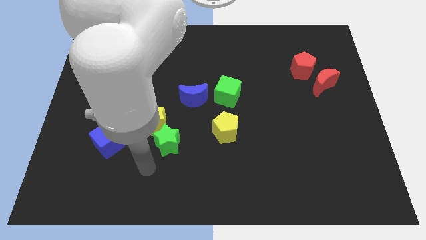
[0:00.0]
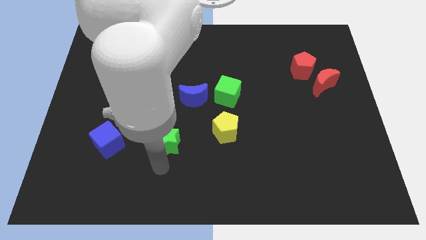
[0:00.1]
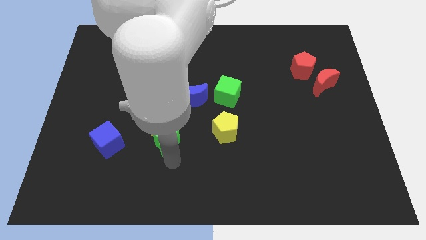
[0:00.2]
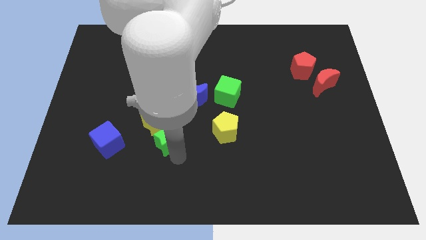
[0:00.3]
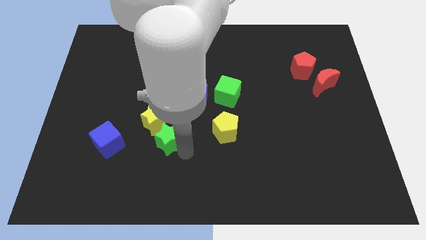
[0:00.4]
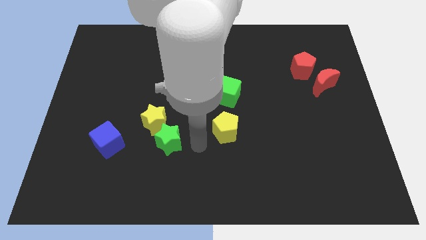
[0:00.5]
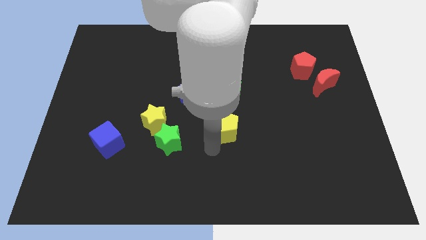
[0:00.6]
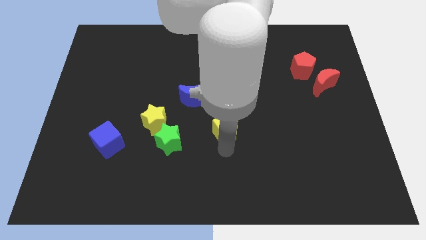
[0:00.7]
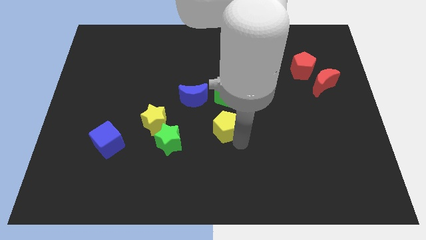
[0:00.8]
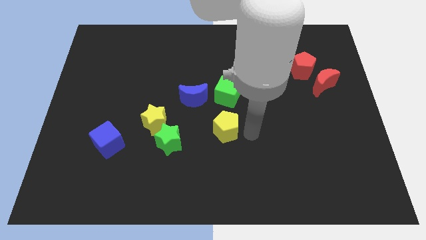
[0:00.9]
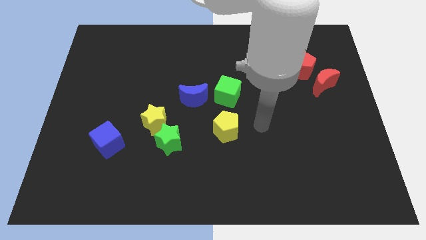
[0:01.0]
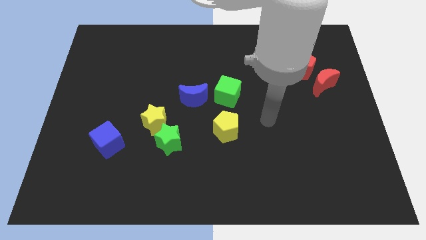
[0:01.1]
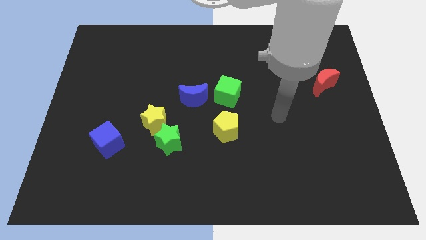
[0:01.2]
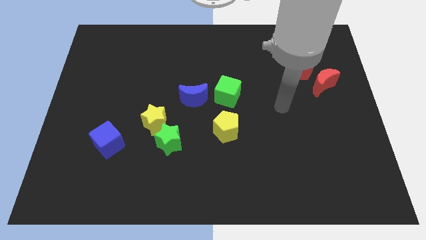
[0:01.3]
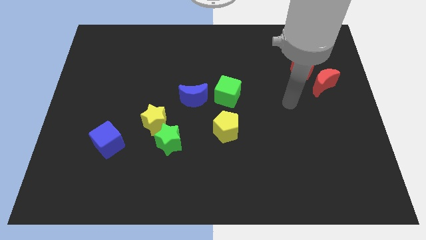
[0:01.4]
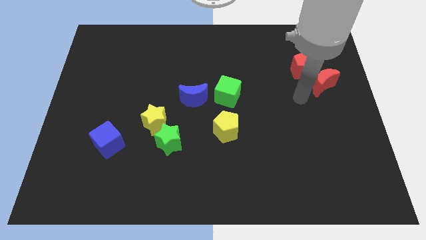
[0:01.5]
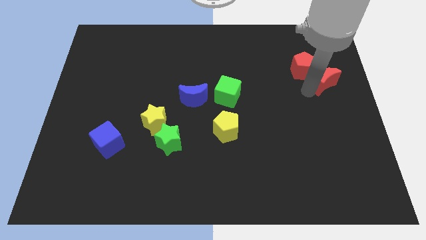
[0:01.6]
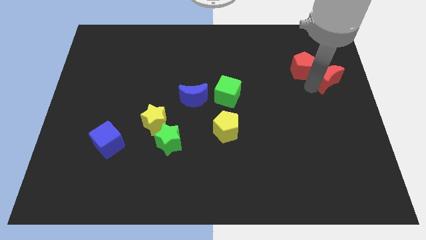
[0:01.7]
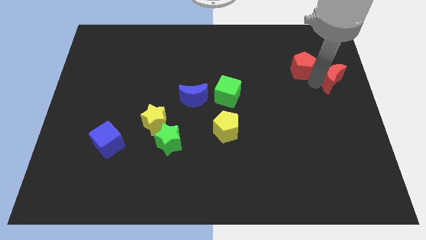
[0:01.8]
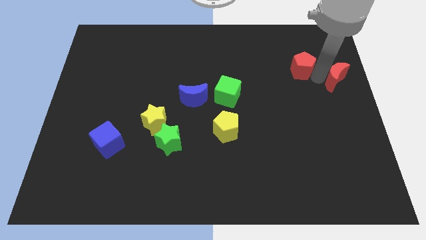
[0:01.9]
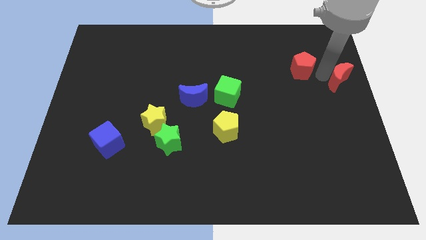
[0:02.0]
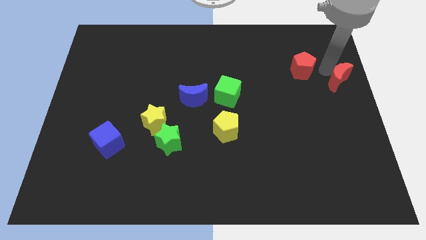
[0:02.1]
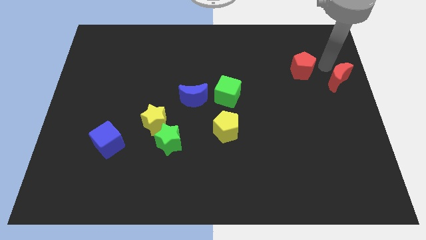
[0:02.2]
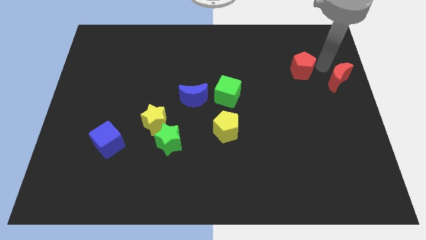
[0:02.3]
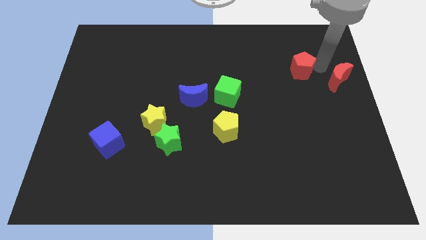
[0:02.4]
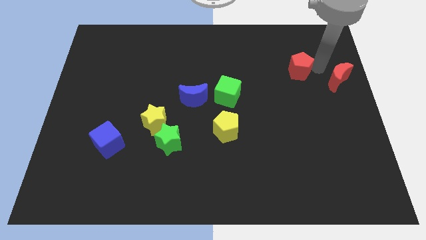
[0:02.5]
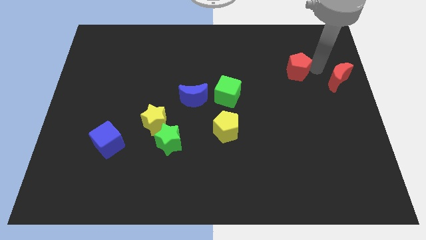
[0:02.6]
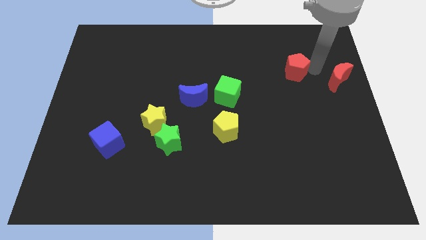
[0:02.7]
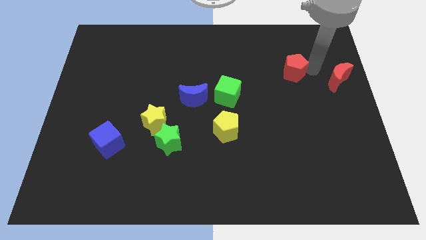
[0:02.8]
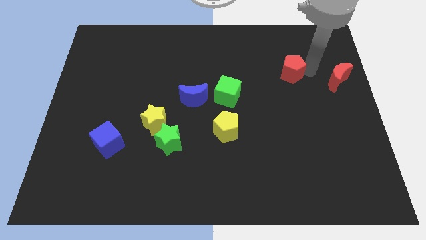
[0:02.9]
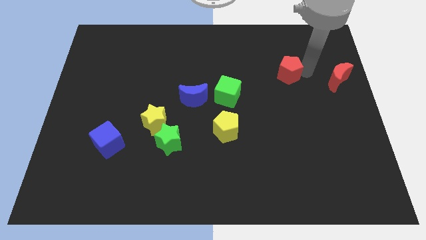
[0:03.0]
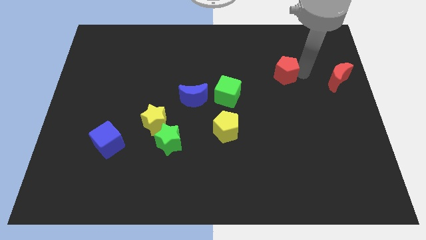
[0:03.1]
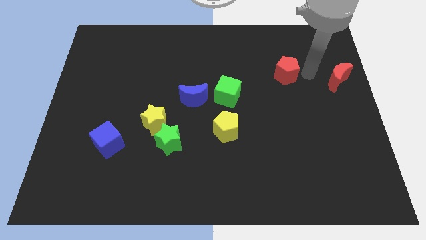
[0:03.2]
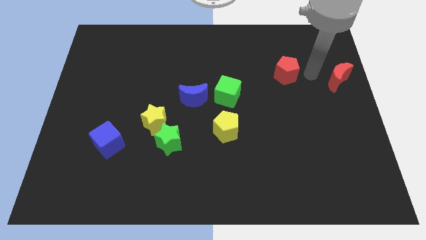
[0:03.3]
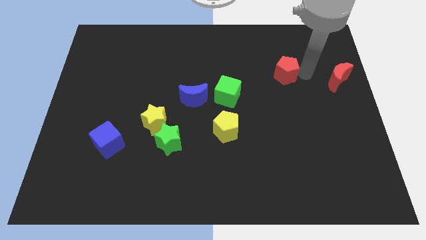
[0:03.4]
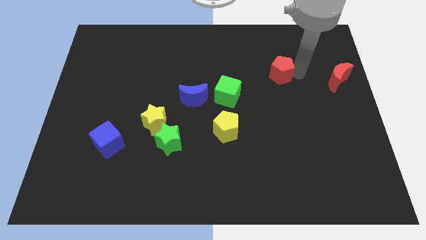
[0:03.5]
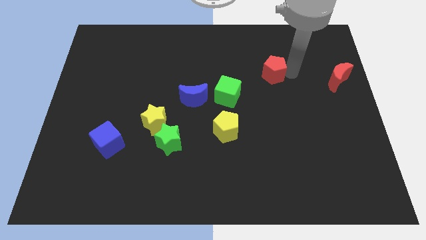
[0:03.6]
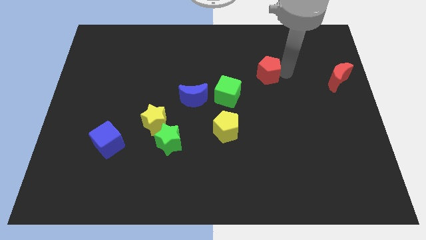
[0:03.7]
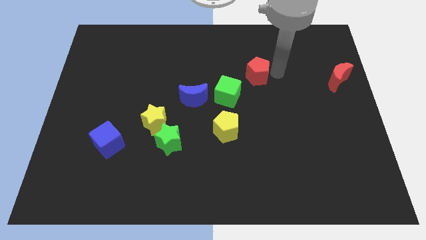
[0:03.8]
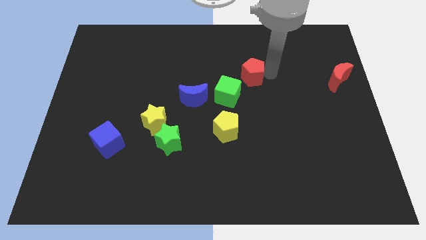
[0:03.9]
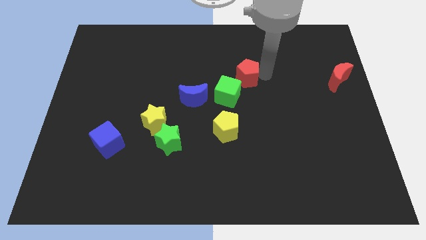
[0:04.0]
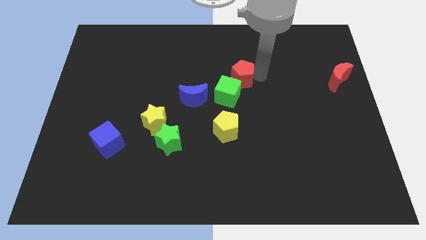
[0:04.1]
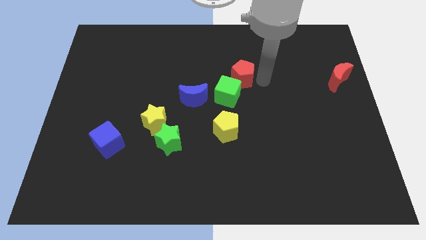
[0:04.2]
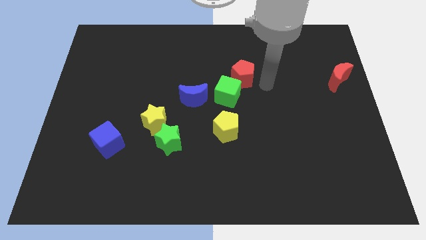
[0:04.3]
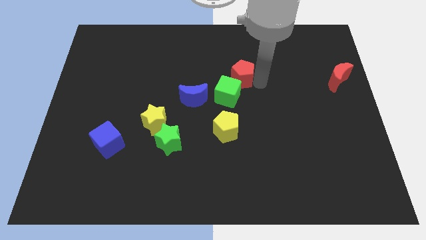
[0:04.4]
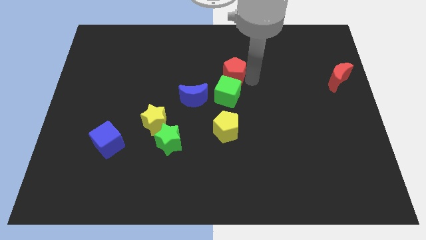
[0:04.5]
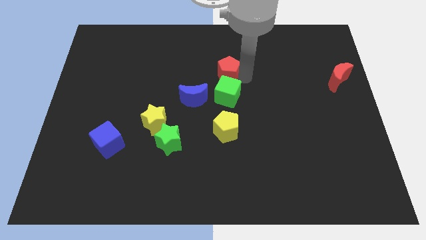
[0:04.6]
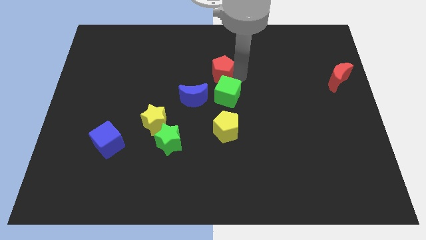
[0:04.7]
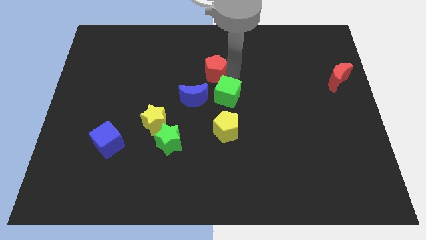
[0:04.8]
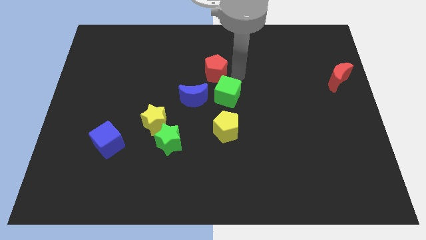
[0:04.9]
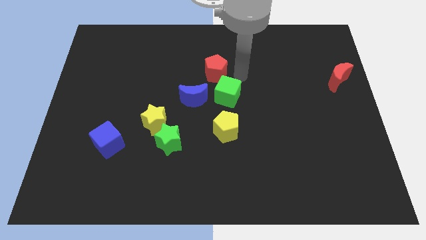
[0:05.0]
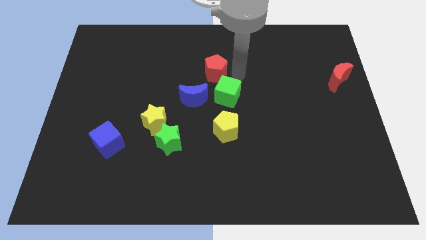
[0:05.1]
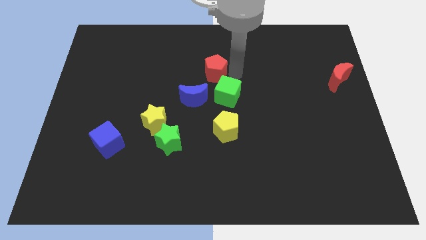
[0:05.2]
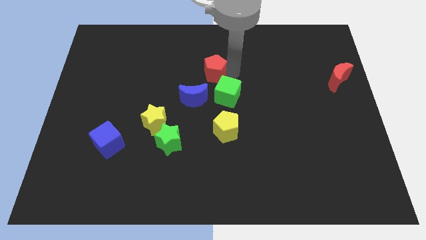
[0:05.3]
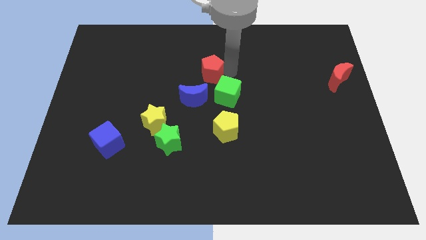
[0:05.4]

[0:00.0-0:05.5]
move the red pentagon to the top of the blue moon

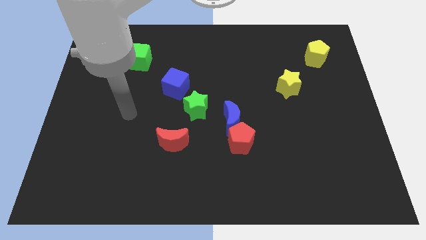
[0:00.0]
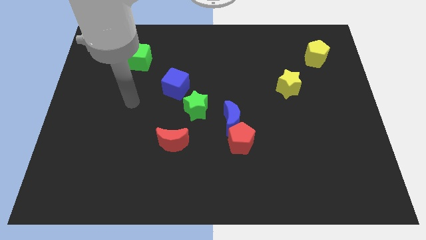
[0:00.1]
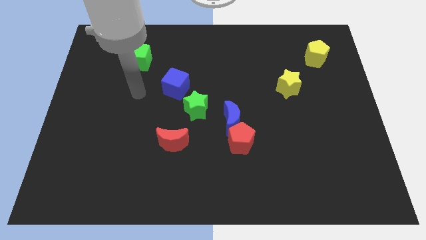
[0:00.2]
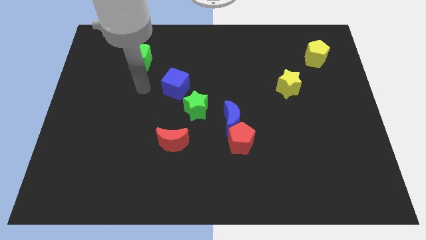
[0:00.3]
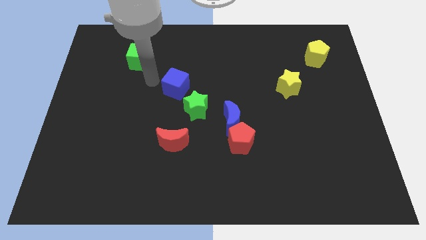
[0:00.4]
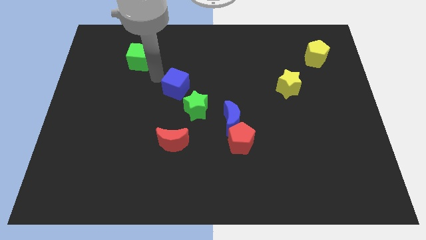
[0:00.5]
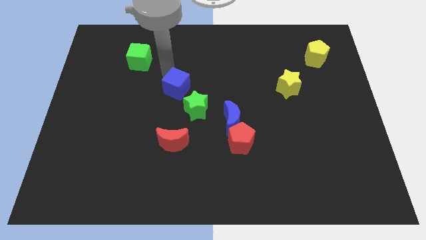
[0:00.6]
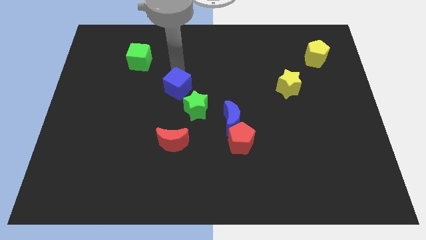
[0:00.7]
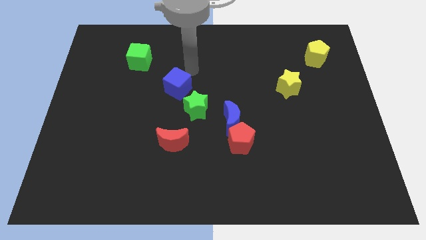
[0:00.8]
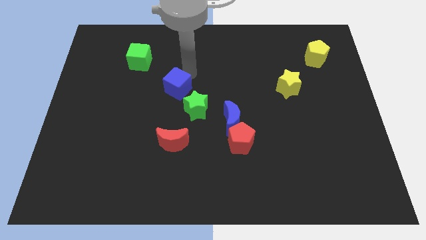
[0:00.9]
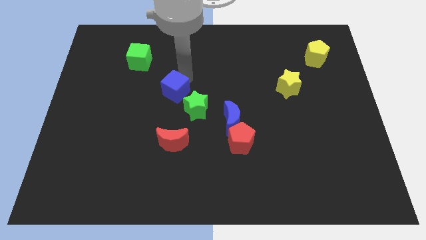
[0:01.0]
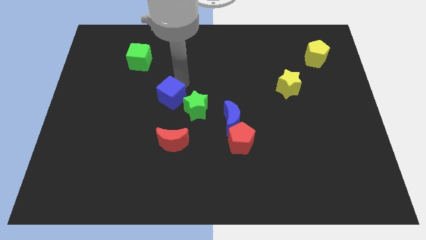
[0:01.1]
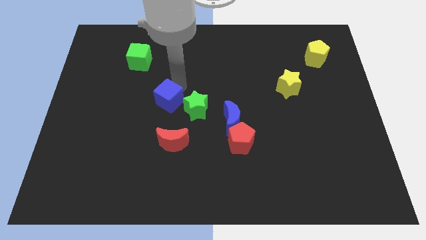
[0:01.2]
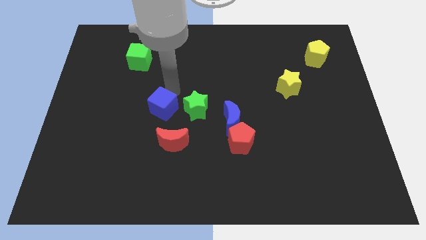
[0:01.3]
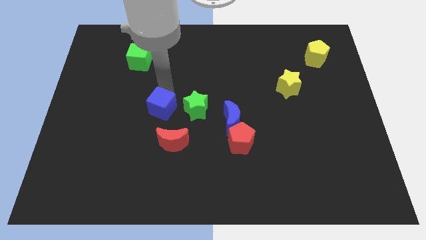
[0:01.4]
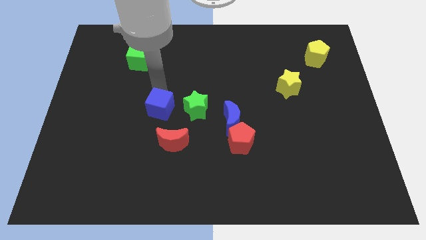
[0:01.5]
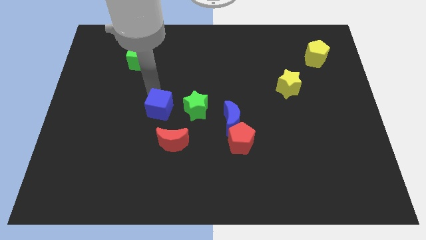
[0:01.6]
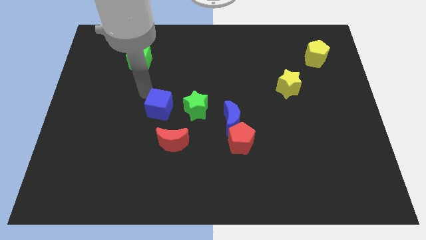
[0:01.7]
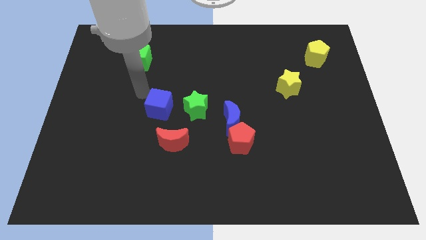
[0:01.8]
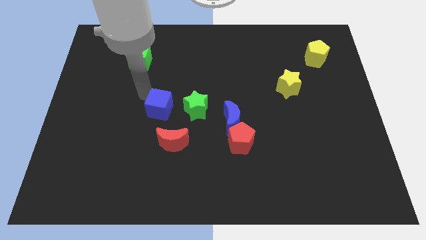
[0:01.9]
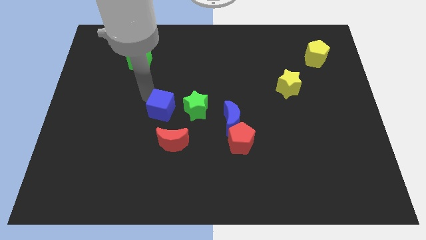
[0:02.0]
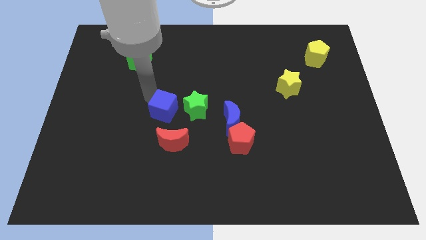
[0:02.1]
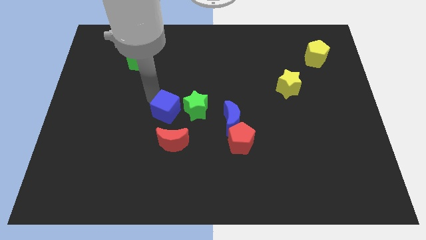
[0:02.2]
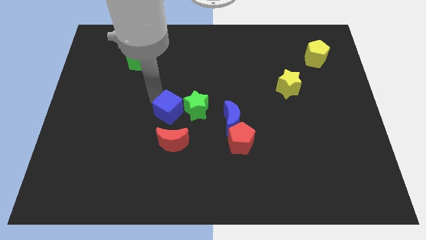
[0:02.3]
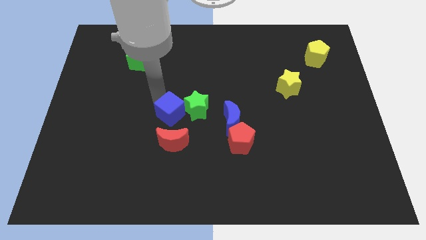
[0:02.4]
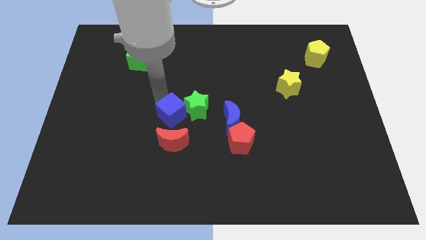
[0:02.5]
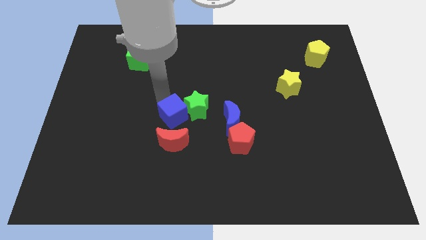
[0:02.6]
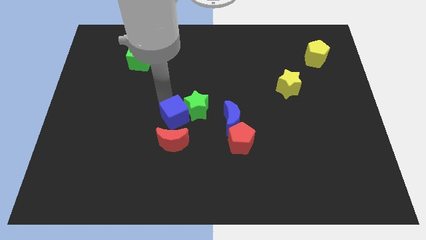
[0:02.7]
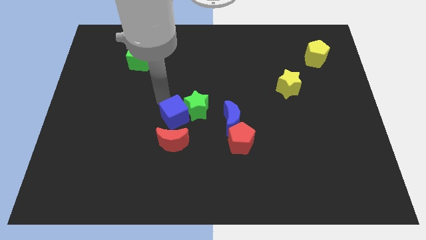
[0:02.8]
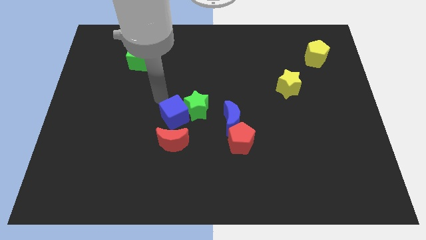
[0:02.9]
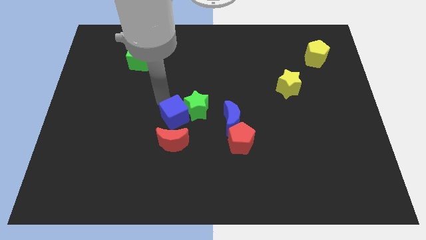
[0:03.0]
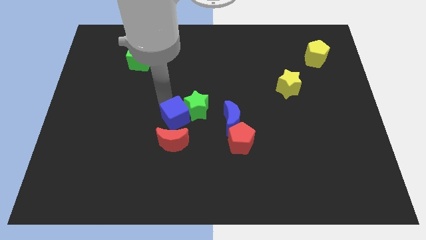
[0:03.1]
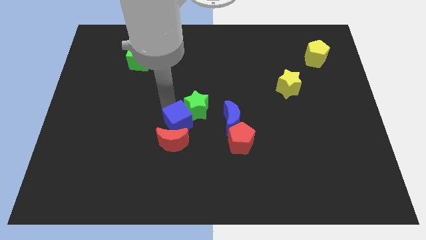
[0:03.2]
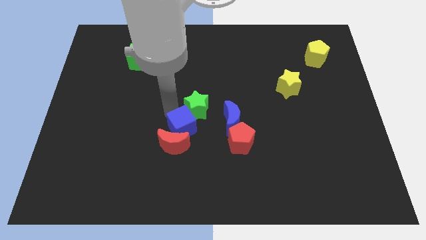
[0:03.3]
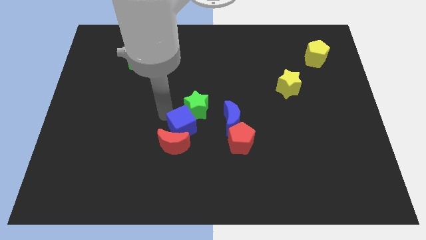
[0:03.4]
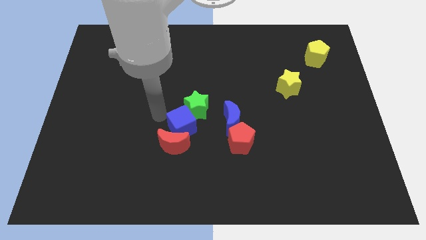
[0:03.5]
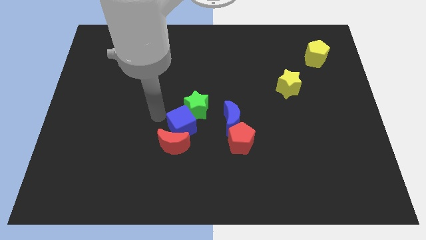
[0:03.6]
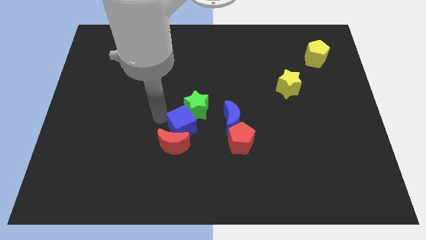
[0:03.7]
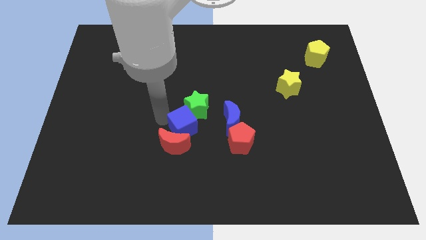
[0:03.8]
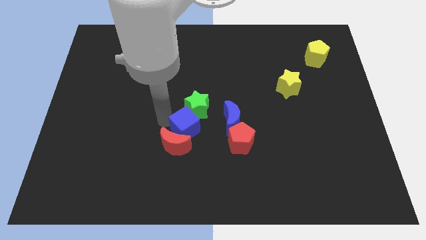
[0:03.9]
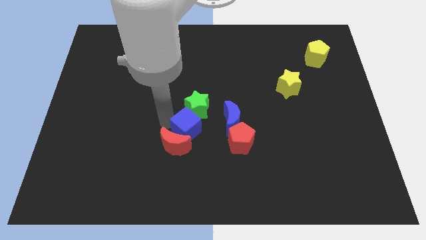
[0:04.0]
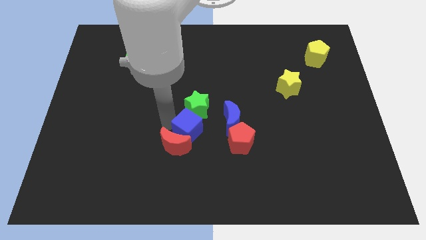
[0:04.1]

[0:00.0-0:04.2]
push the blue cube to the right of the red moon
